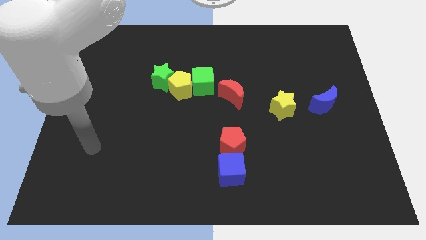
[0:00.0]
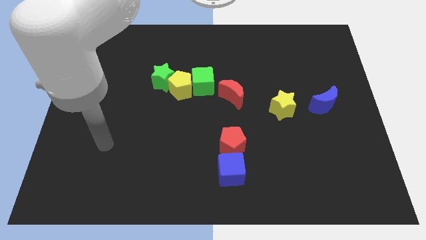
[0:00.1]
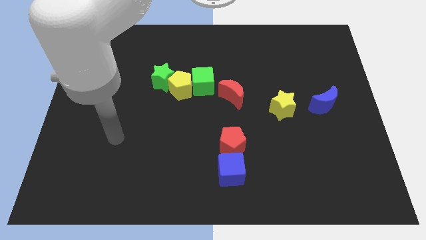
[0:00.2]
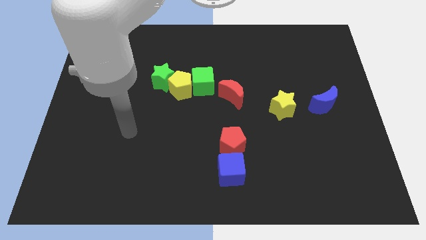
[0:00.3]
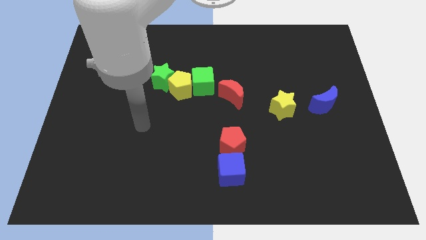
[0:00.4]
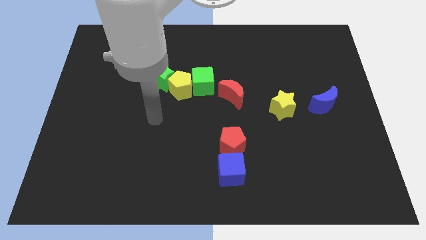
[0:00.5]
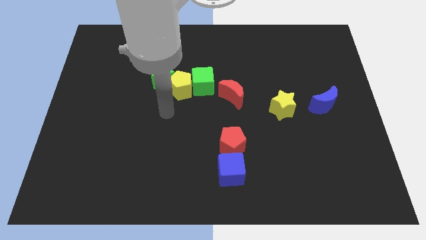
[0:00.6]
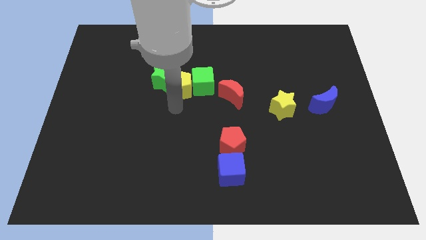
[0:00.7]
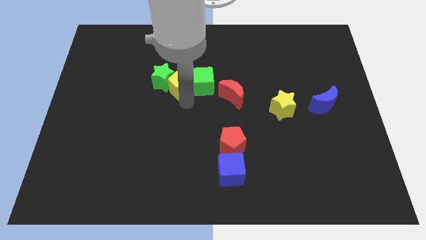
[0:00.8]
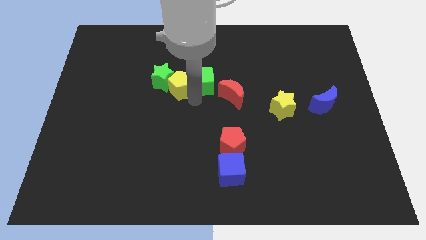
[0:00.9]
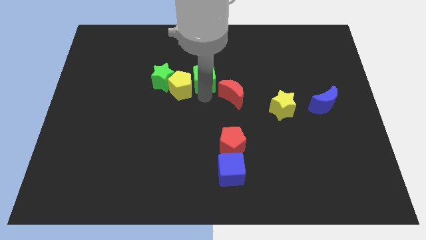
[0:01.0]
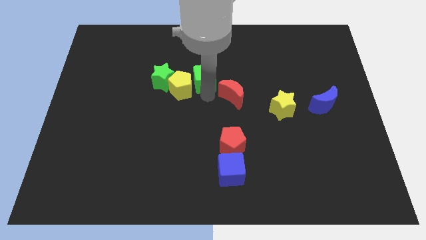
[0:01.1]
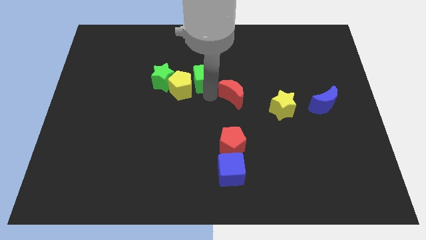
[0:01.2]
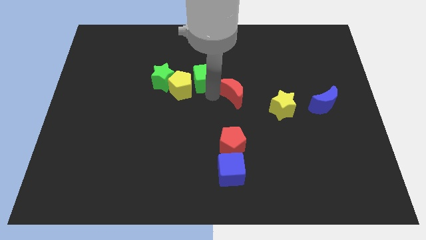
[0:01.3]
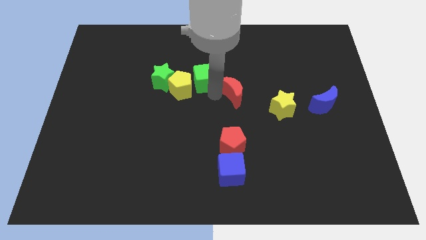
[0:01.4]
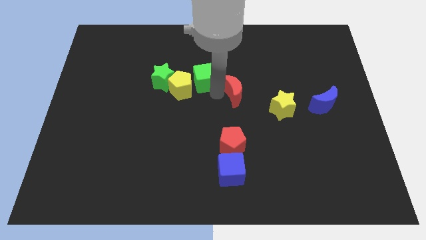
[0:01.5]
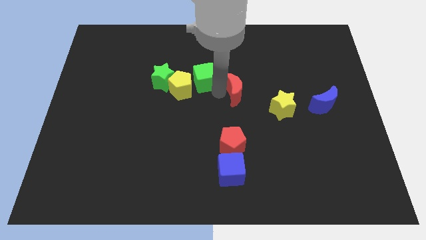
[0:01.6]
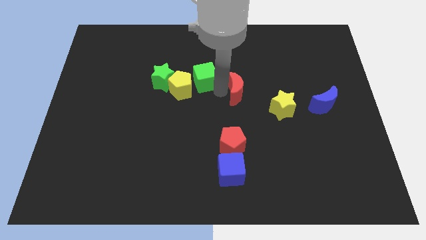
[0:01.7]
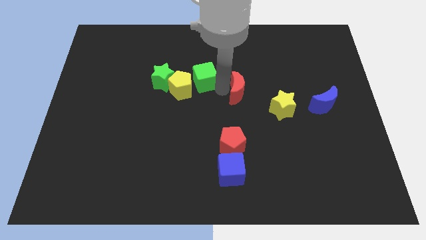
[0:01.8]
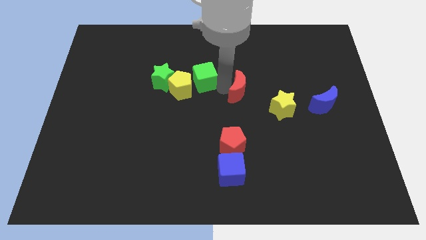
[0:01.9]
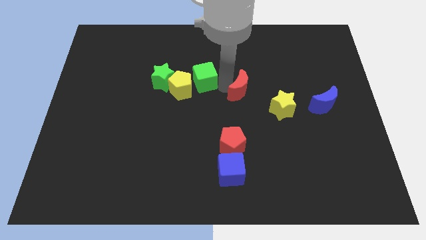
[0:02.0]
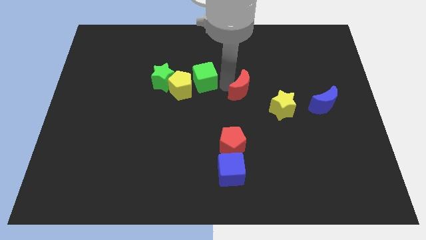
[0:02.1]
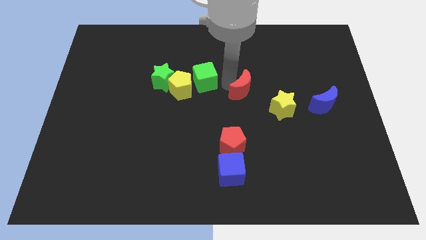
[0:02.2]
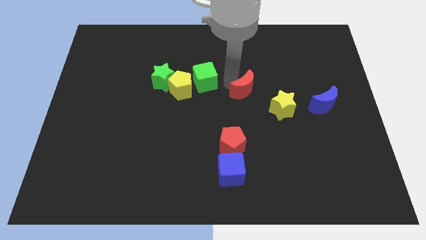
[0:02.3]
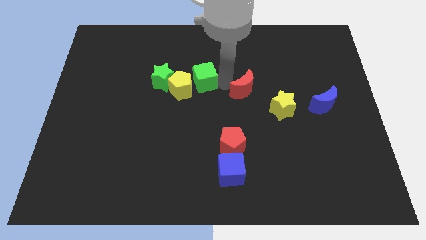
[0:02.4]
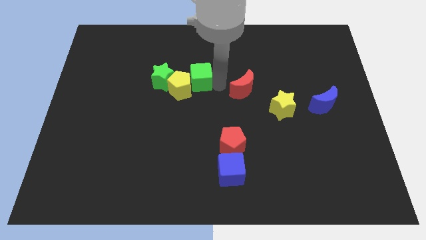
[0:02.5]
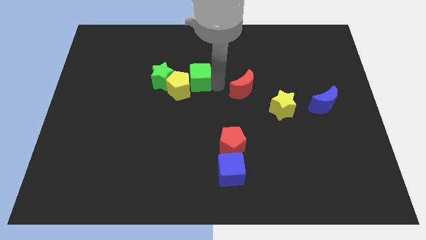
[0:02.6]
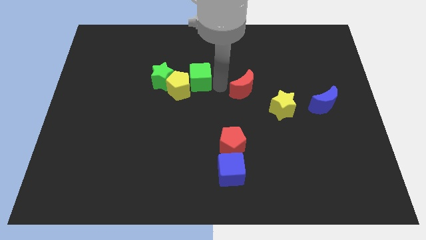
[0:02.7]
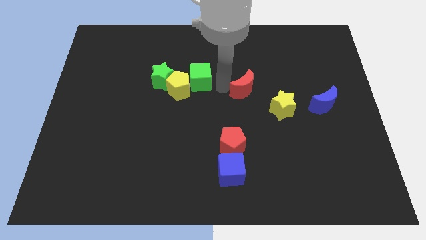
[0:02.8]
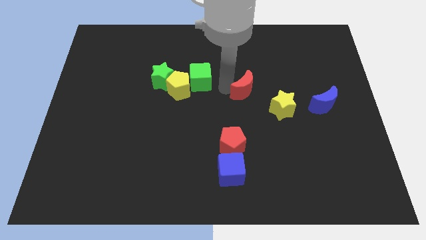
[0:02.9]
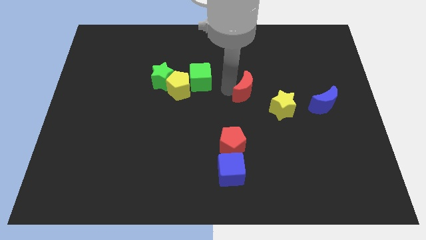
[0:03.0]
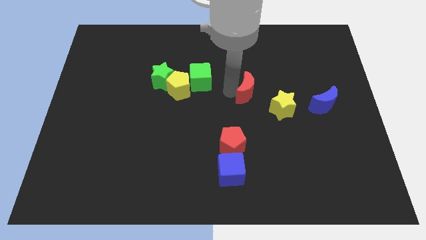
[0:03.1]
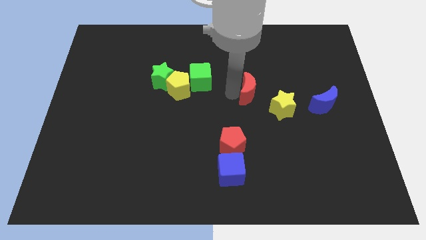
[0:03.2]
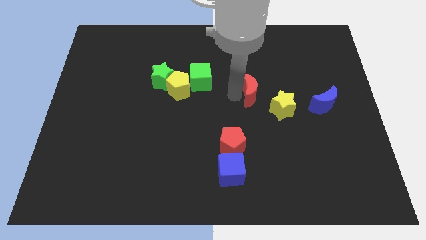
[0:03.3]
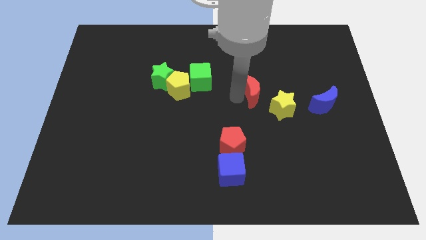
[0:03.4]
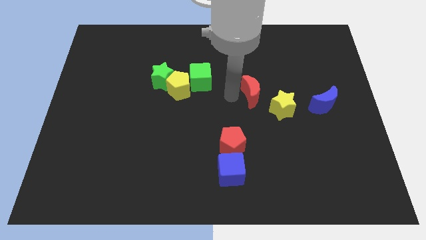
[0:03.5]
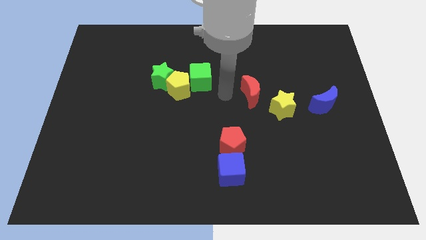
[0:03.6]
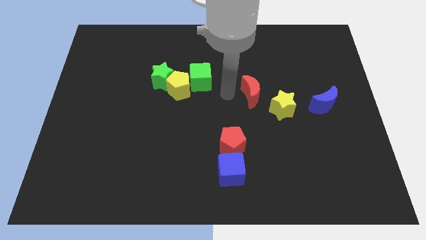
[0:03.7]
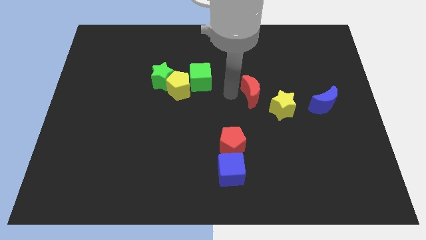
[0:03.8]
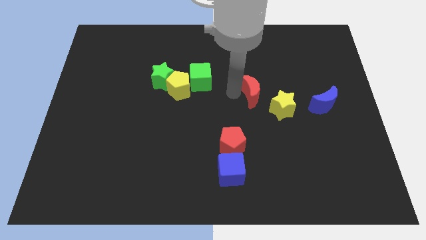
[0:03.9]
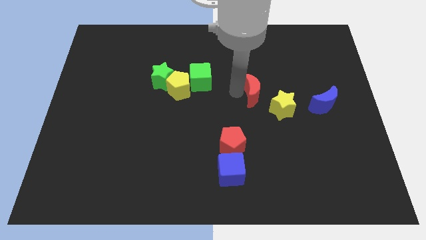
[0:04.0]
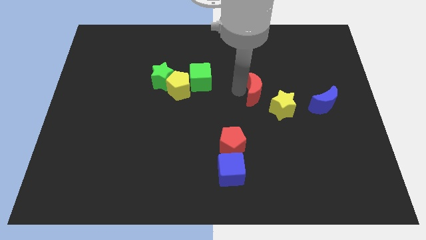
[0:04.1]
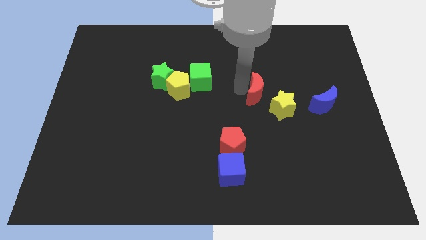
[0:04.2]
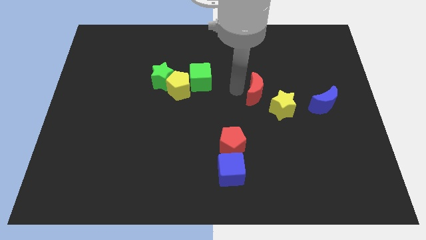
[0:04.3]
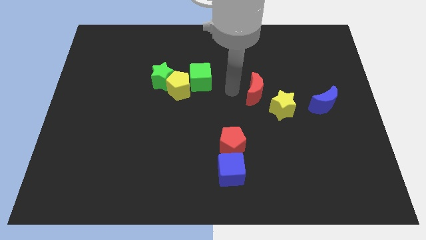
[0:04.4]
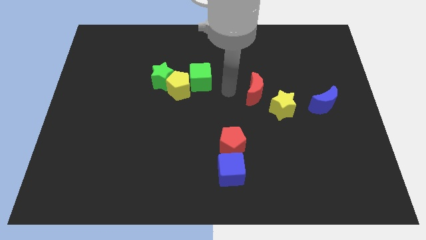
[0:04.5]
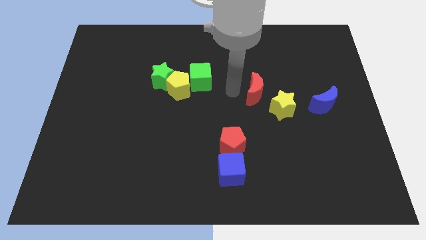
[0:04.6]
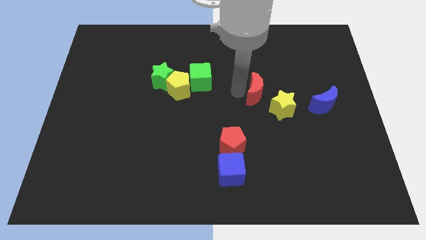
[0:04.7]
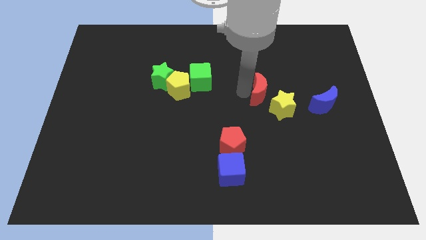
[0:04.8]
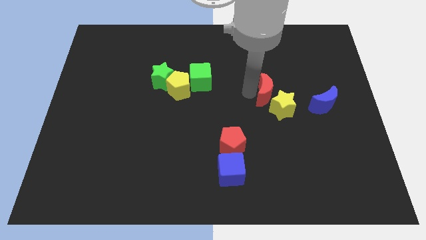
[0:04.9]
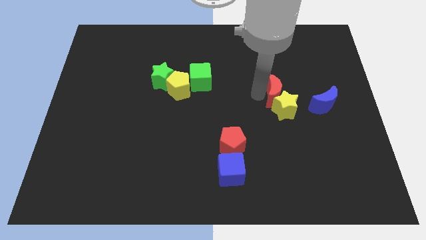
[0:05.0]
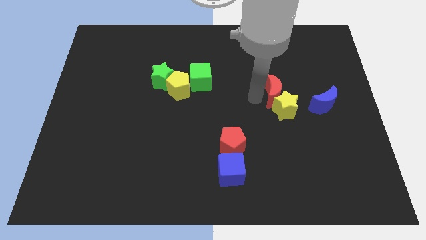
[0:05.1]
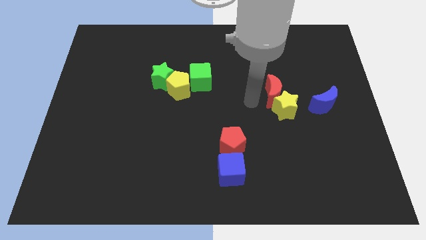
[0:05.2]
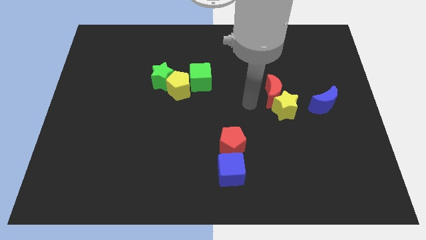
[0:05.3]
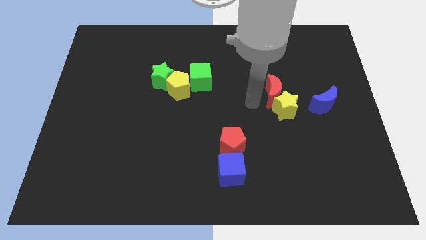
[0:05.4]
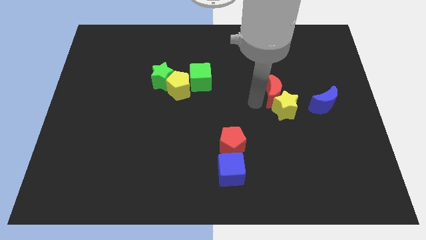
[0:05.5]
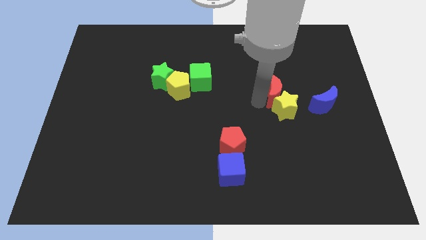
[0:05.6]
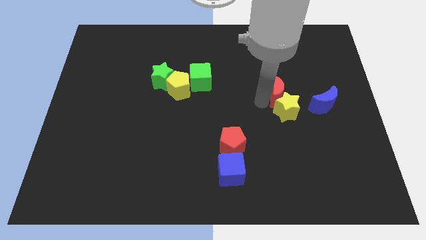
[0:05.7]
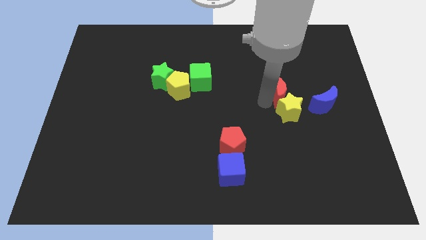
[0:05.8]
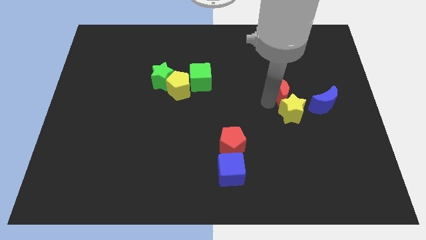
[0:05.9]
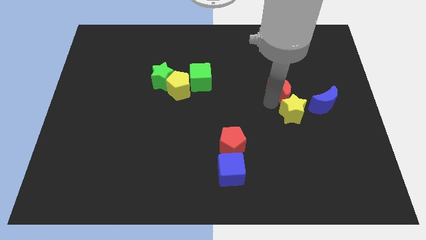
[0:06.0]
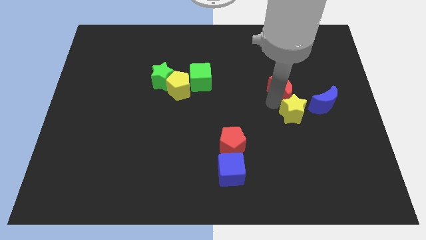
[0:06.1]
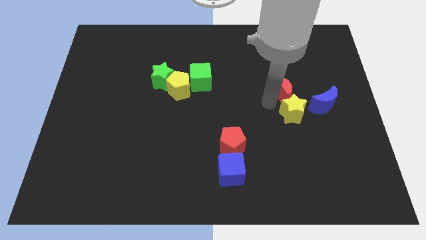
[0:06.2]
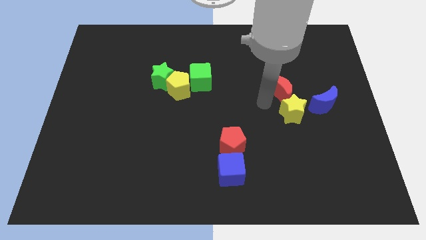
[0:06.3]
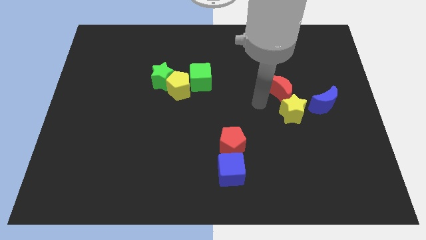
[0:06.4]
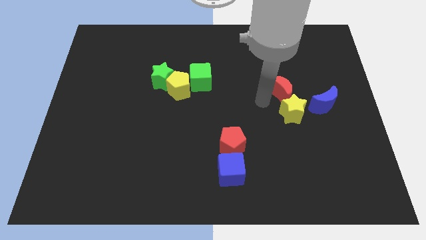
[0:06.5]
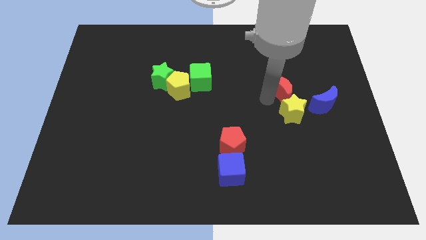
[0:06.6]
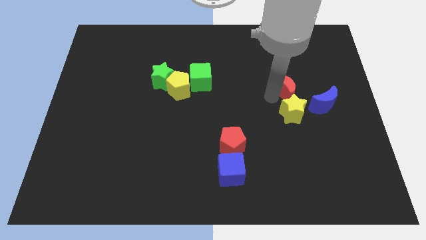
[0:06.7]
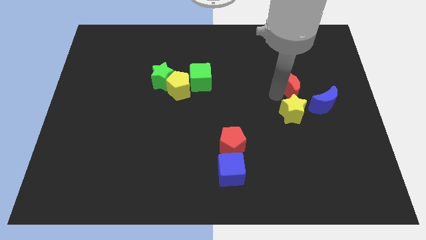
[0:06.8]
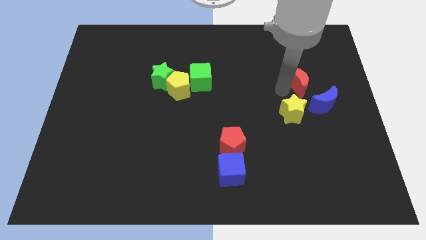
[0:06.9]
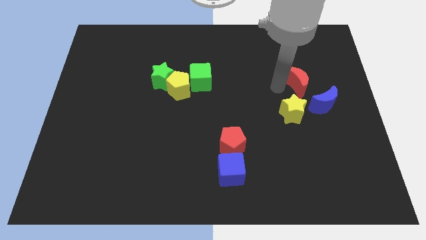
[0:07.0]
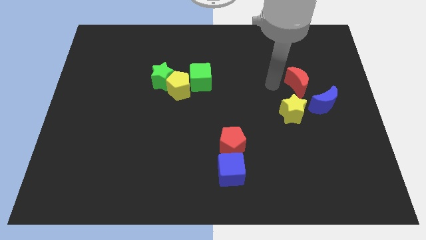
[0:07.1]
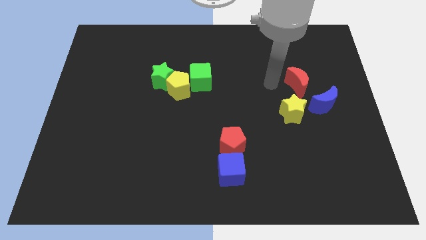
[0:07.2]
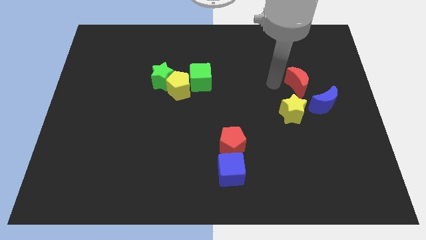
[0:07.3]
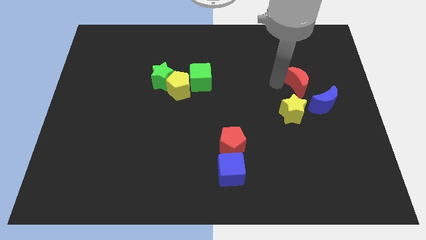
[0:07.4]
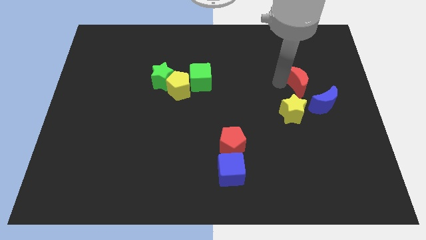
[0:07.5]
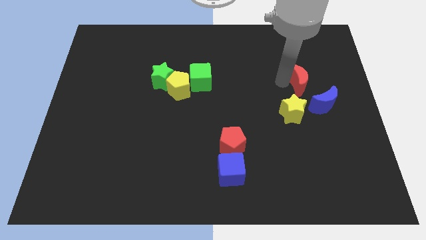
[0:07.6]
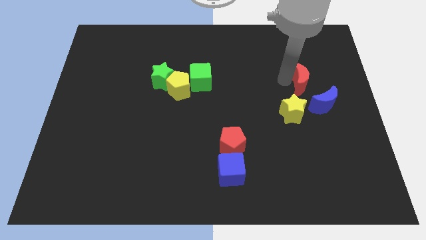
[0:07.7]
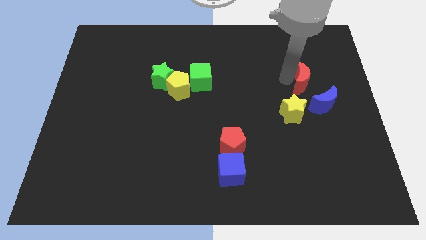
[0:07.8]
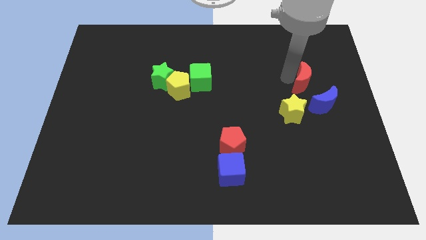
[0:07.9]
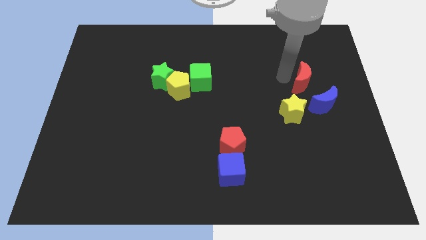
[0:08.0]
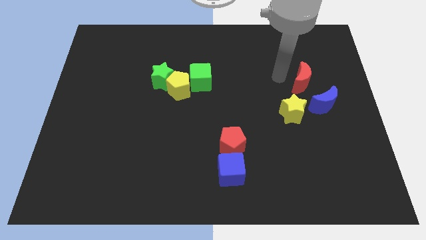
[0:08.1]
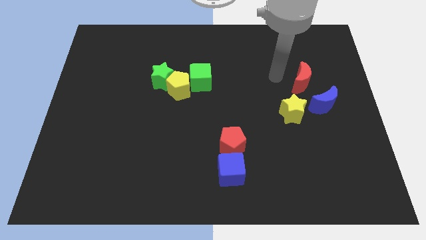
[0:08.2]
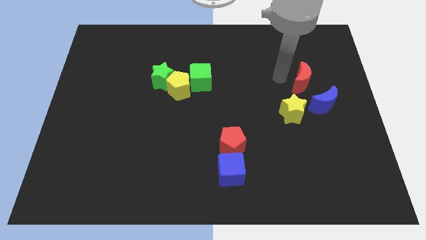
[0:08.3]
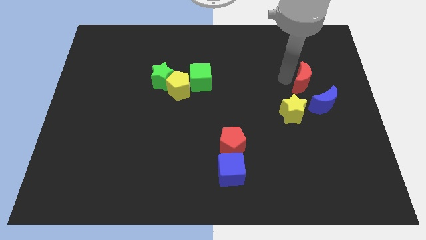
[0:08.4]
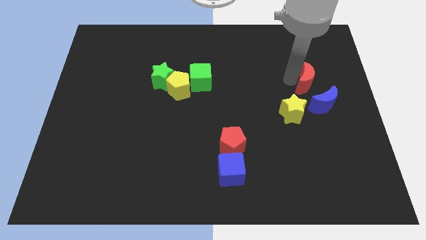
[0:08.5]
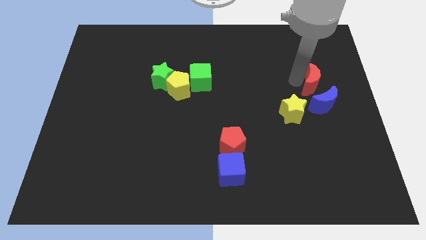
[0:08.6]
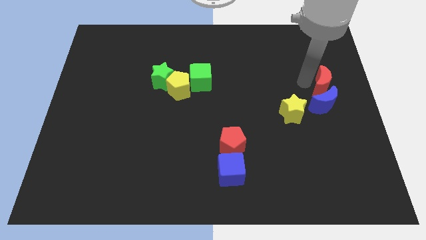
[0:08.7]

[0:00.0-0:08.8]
push the red moon to the right side
